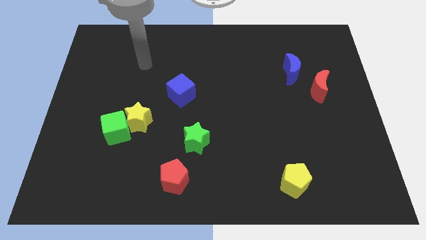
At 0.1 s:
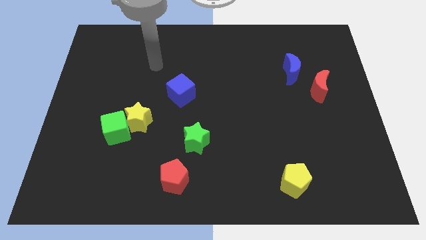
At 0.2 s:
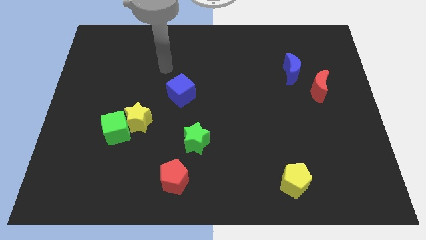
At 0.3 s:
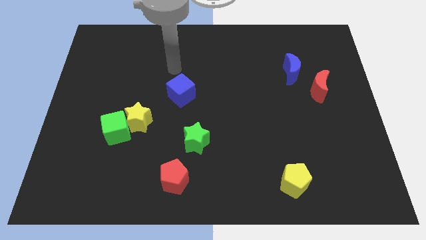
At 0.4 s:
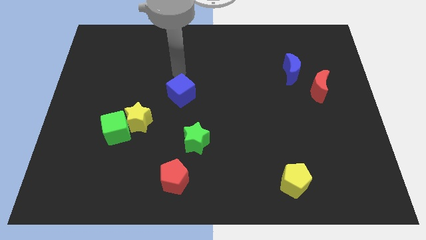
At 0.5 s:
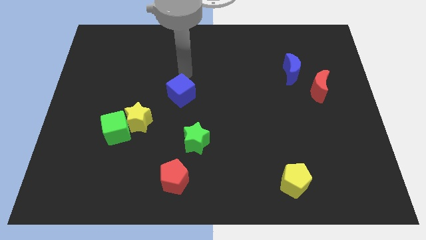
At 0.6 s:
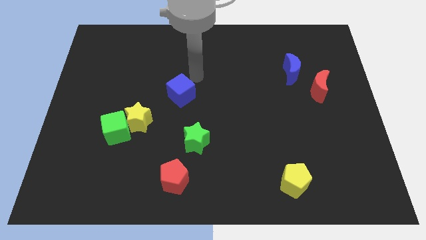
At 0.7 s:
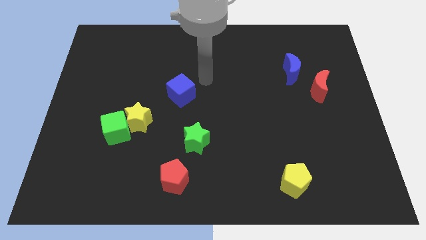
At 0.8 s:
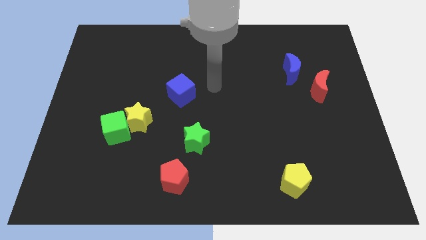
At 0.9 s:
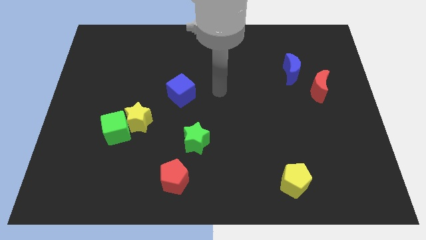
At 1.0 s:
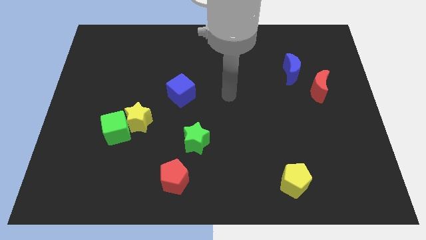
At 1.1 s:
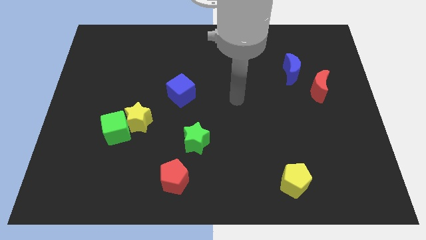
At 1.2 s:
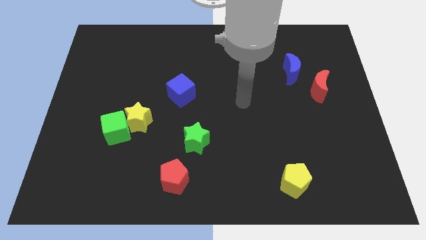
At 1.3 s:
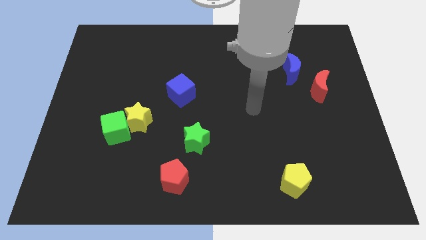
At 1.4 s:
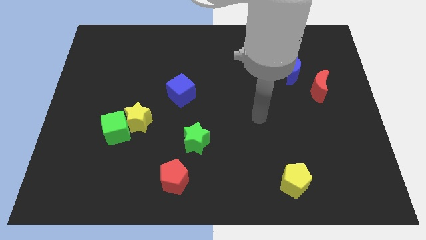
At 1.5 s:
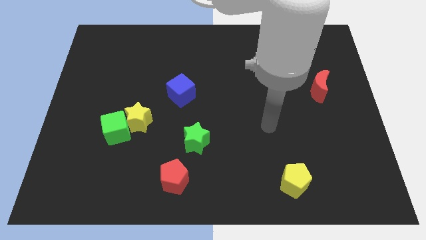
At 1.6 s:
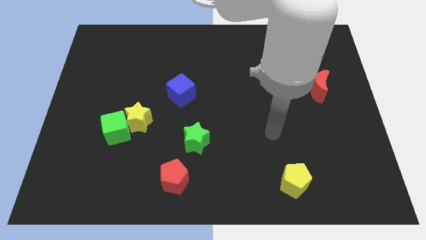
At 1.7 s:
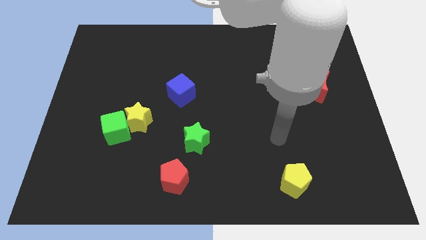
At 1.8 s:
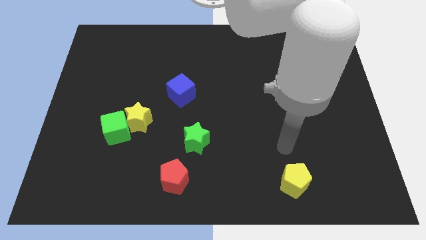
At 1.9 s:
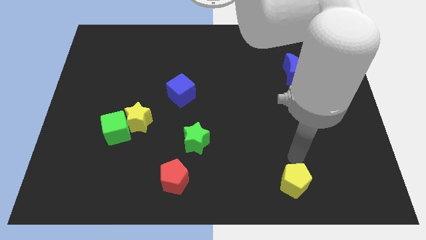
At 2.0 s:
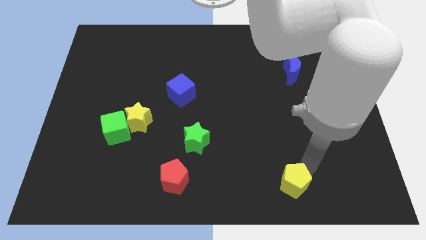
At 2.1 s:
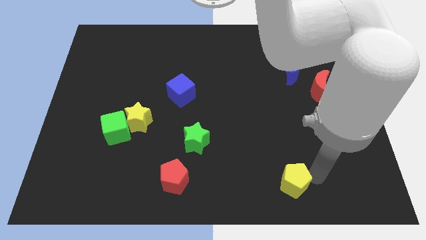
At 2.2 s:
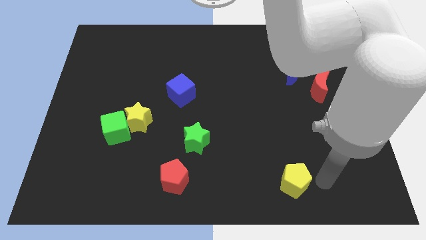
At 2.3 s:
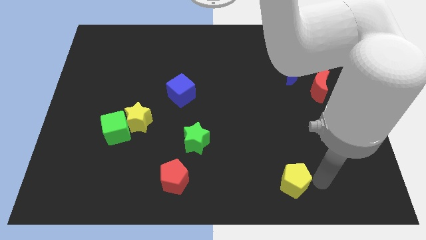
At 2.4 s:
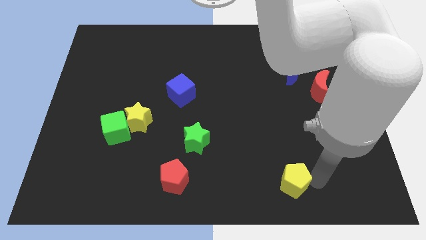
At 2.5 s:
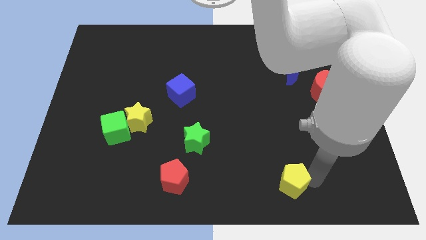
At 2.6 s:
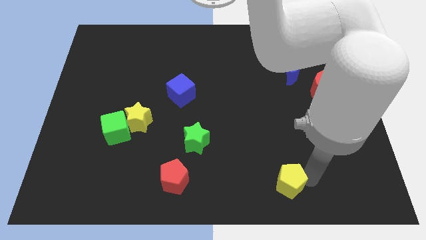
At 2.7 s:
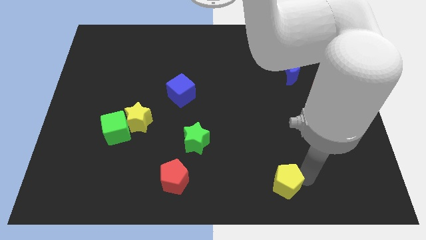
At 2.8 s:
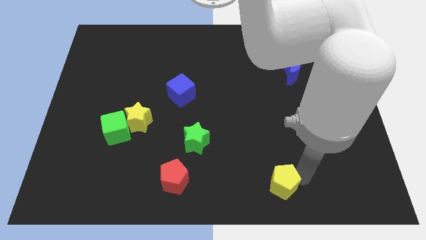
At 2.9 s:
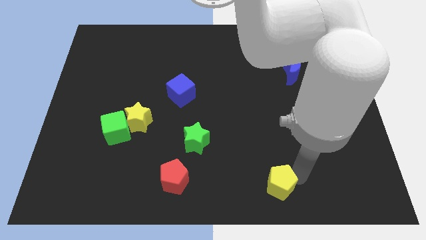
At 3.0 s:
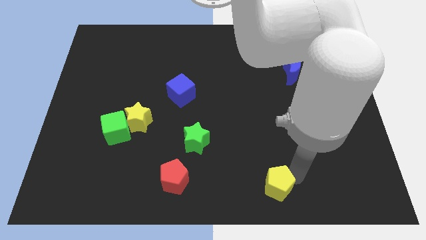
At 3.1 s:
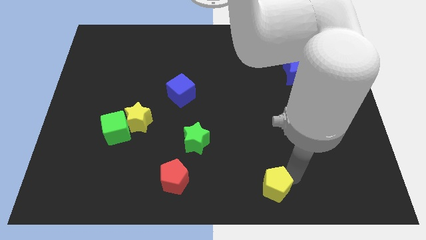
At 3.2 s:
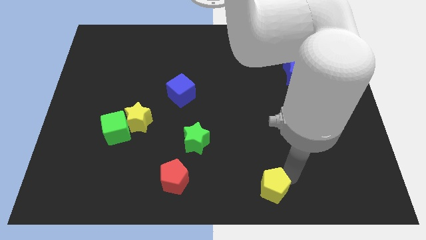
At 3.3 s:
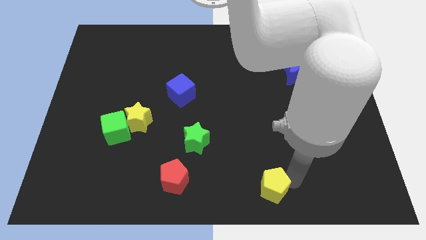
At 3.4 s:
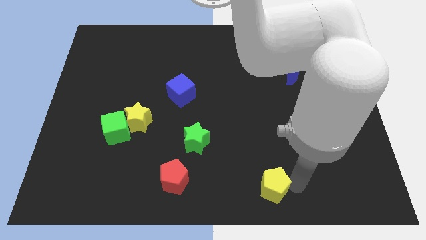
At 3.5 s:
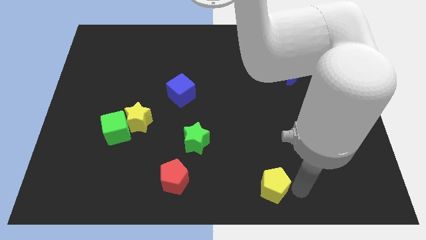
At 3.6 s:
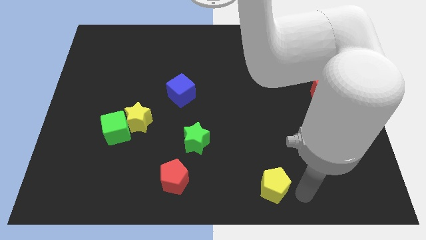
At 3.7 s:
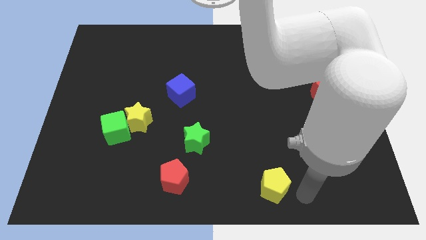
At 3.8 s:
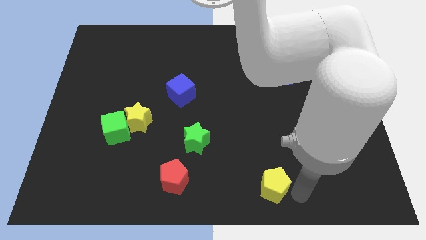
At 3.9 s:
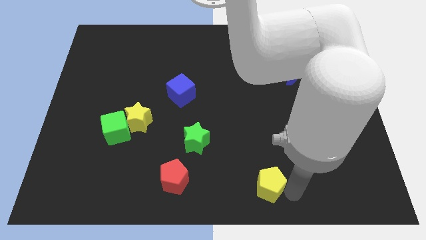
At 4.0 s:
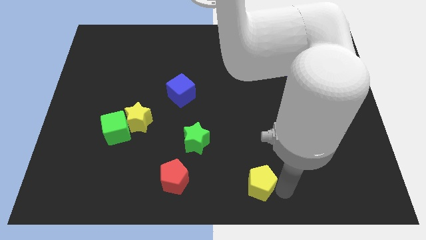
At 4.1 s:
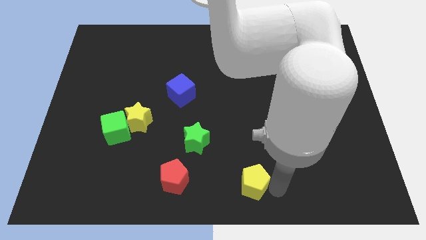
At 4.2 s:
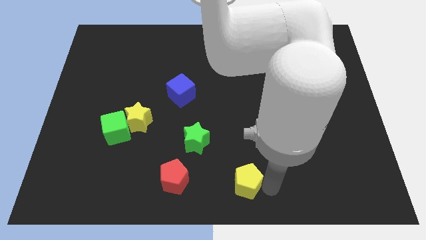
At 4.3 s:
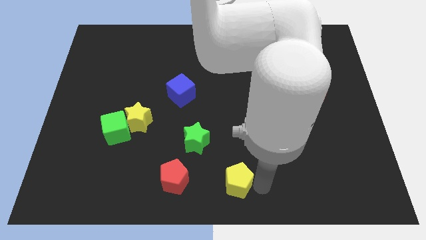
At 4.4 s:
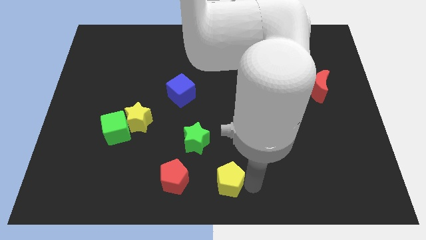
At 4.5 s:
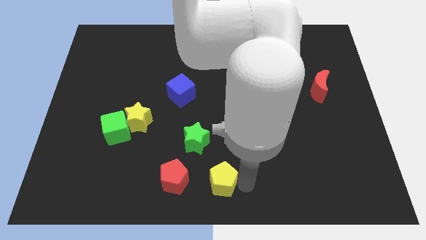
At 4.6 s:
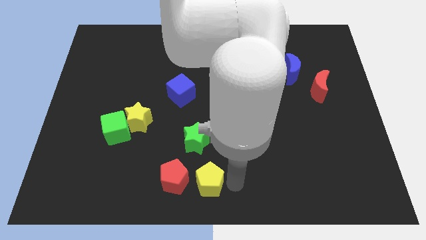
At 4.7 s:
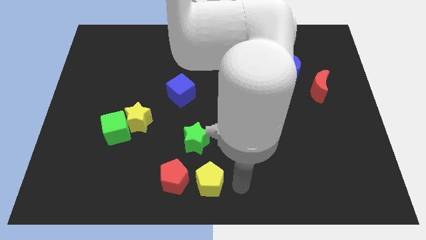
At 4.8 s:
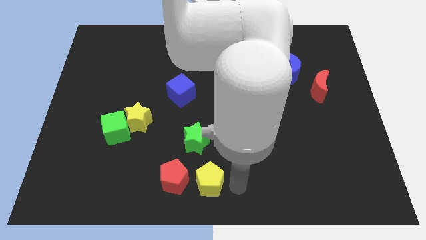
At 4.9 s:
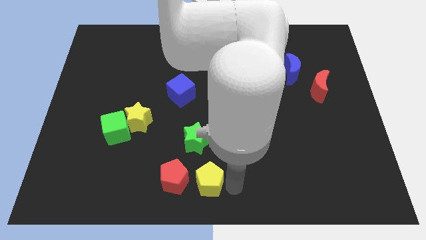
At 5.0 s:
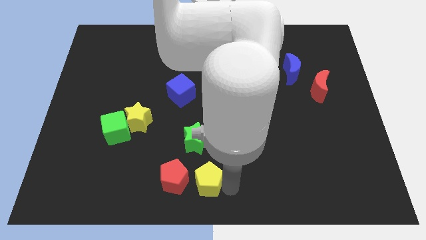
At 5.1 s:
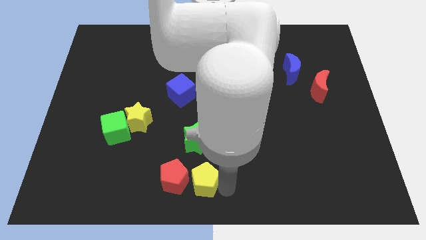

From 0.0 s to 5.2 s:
move the yellow pentagon close to the red pentagon

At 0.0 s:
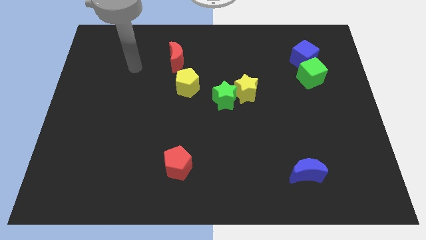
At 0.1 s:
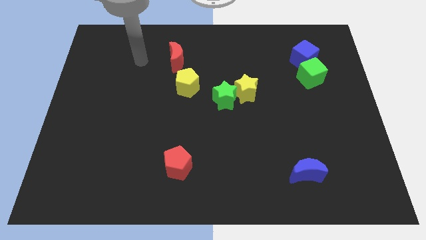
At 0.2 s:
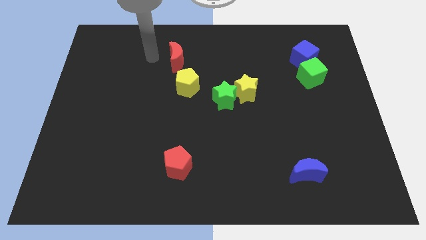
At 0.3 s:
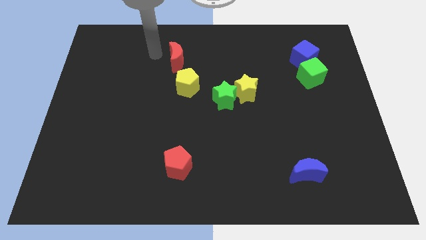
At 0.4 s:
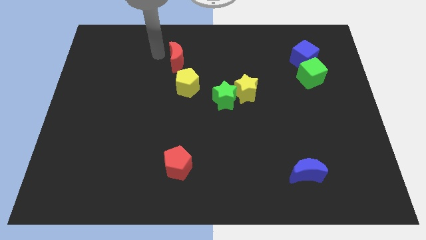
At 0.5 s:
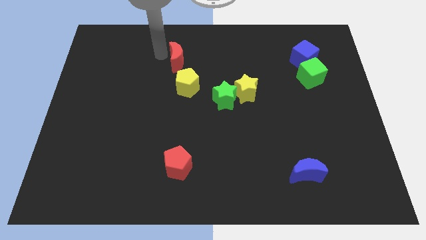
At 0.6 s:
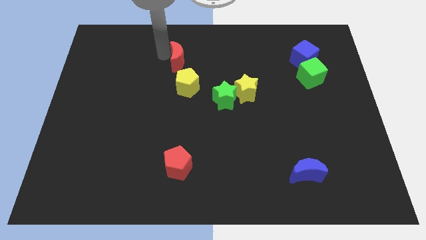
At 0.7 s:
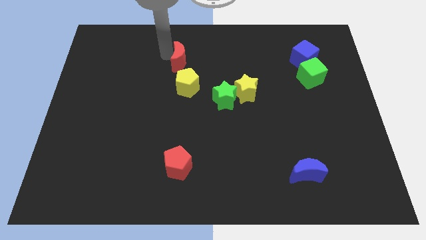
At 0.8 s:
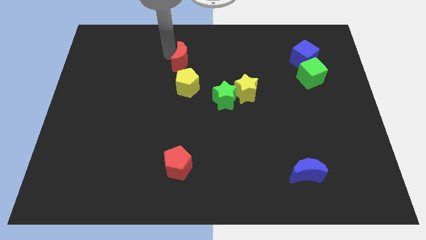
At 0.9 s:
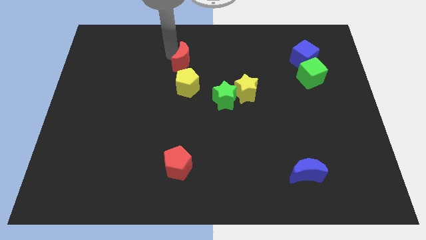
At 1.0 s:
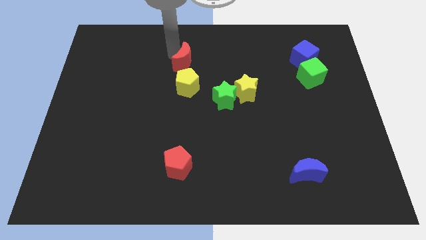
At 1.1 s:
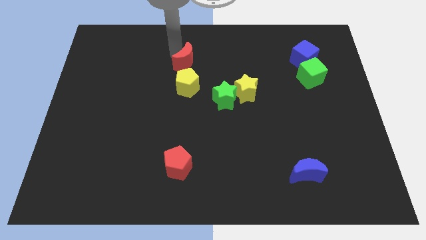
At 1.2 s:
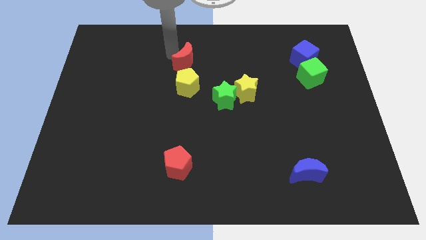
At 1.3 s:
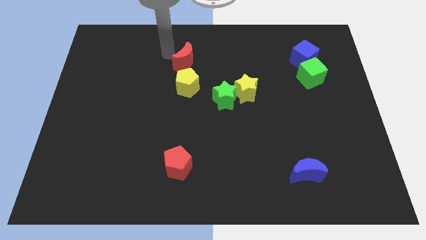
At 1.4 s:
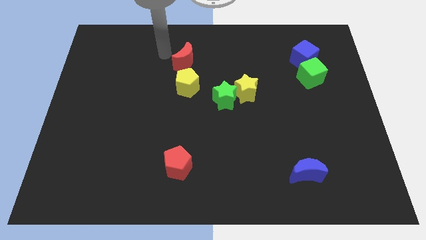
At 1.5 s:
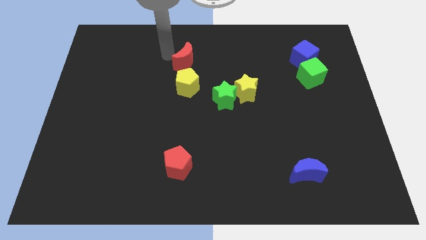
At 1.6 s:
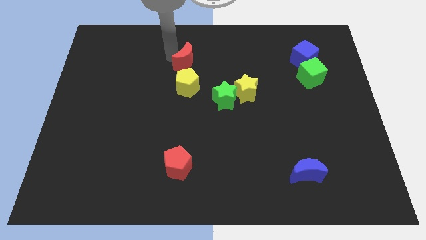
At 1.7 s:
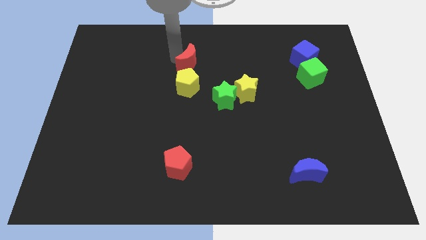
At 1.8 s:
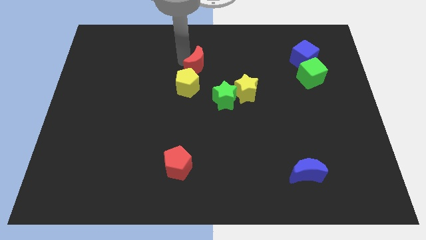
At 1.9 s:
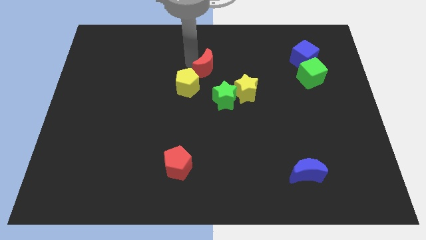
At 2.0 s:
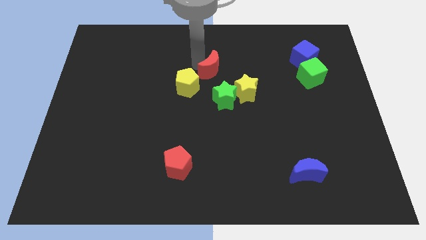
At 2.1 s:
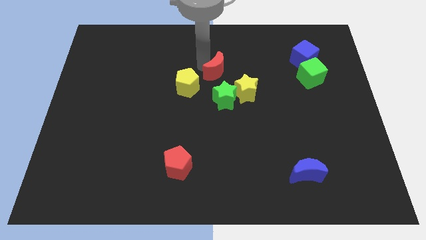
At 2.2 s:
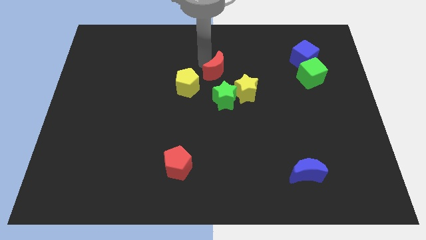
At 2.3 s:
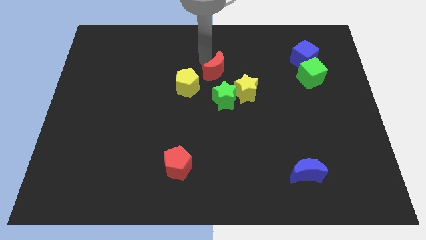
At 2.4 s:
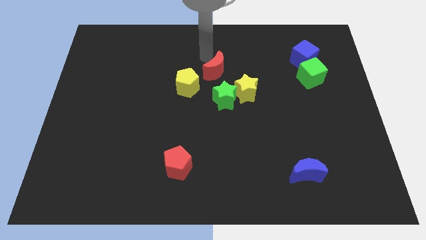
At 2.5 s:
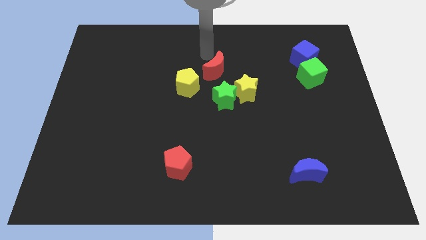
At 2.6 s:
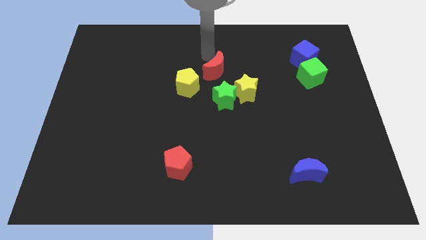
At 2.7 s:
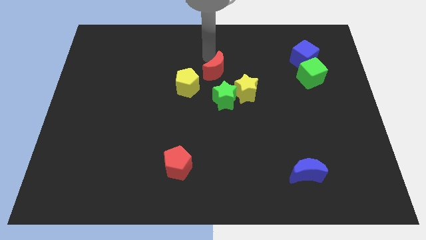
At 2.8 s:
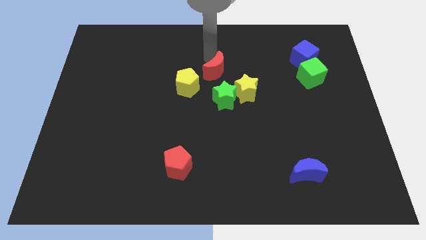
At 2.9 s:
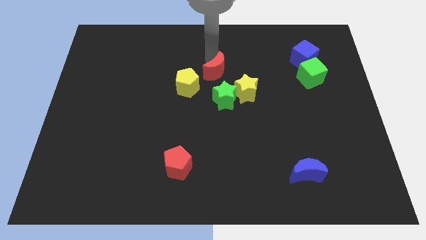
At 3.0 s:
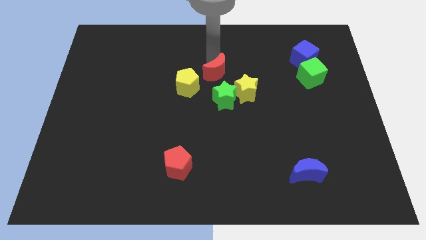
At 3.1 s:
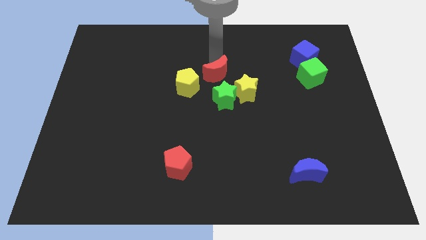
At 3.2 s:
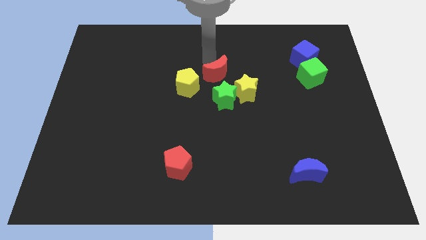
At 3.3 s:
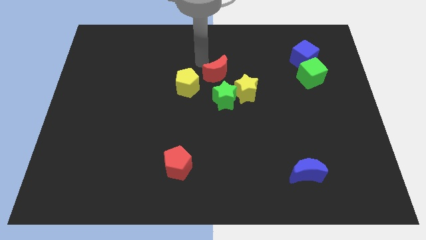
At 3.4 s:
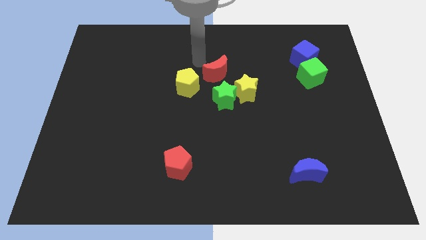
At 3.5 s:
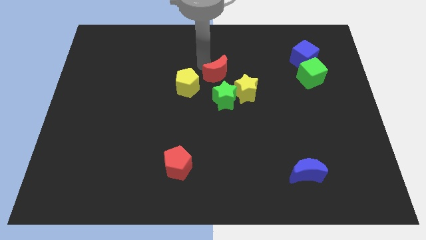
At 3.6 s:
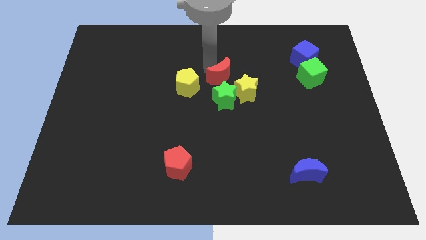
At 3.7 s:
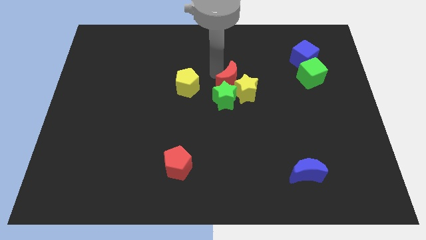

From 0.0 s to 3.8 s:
put the red moon to the yellow star
